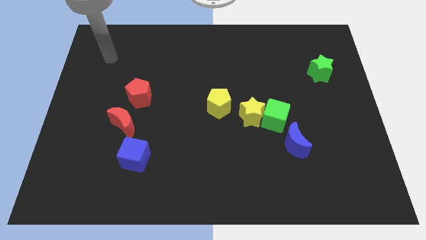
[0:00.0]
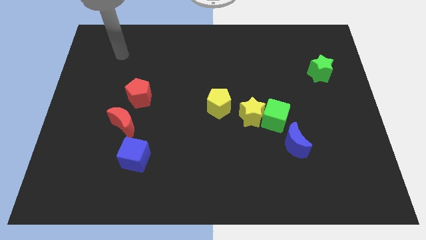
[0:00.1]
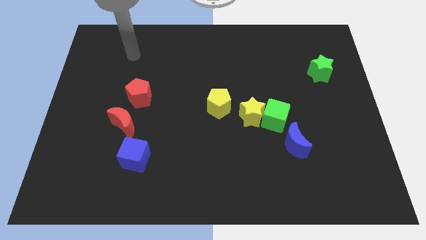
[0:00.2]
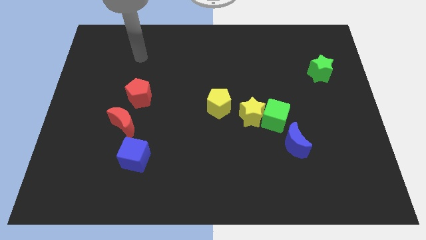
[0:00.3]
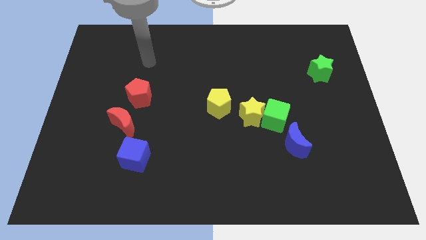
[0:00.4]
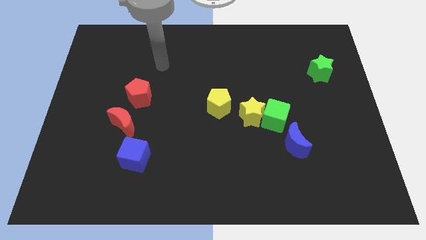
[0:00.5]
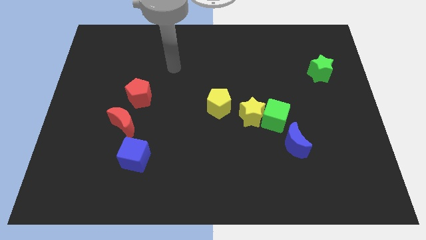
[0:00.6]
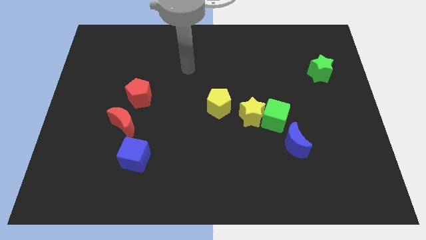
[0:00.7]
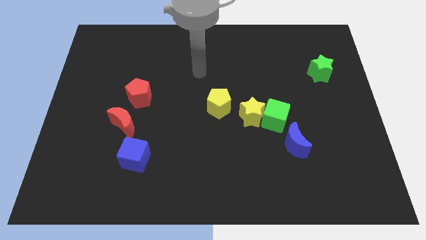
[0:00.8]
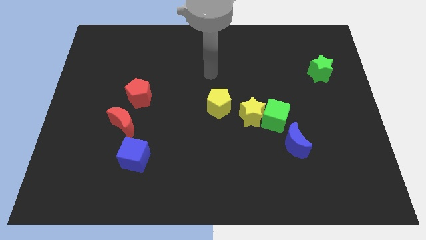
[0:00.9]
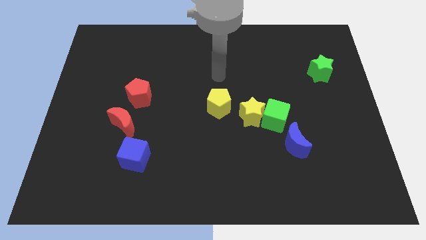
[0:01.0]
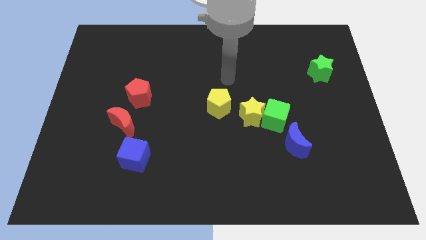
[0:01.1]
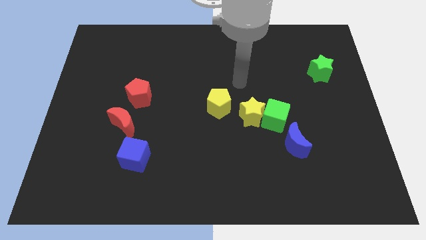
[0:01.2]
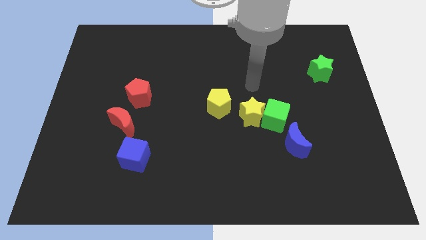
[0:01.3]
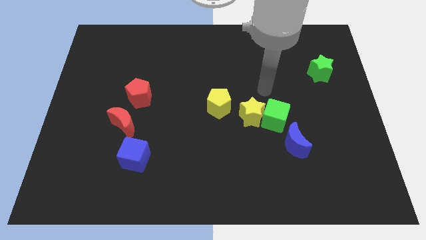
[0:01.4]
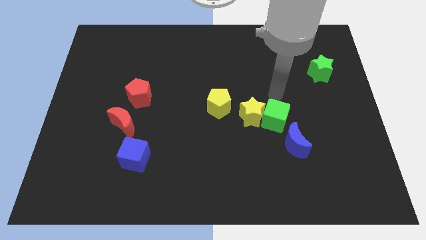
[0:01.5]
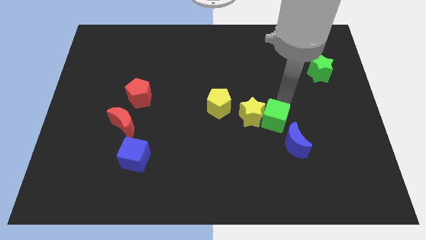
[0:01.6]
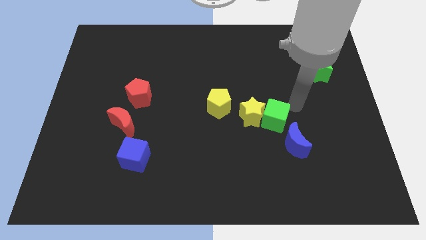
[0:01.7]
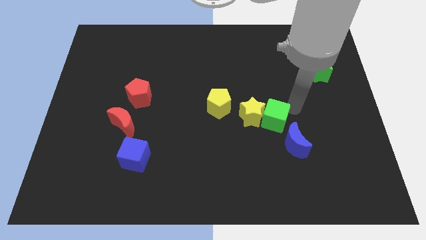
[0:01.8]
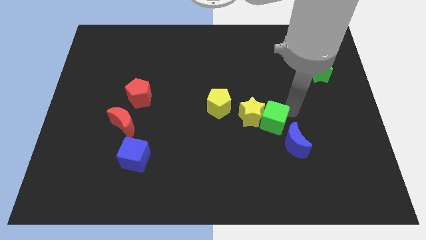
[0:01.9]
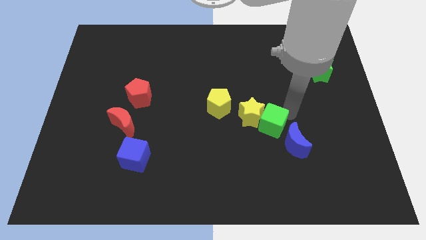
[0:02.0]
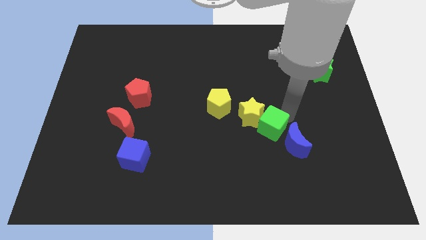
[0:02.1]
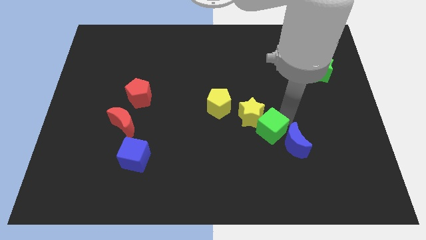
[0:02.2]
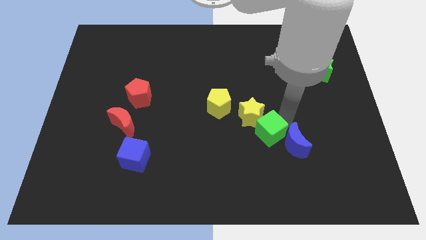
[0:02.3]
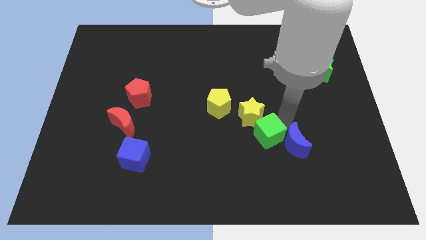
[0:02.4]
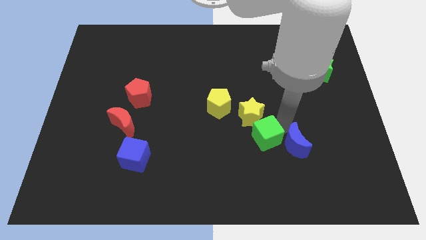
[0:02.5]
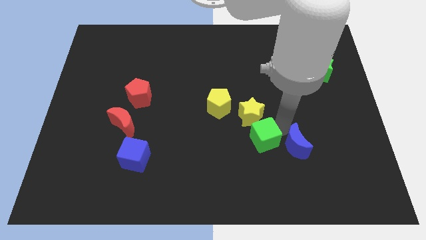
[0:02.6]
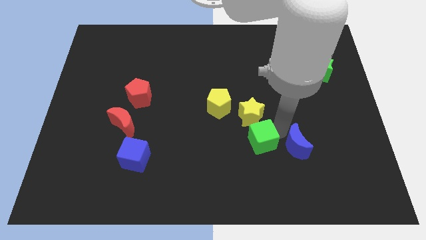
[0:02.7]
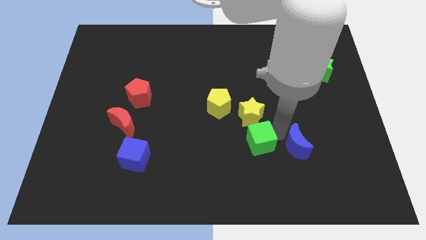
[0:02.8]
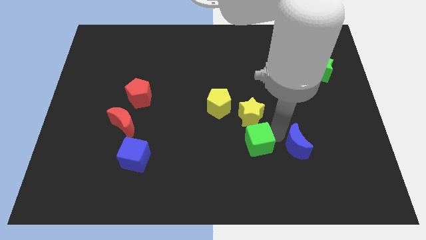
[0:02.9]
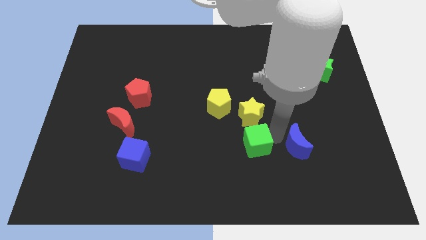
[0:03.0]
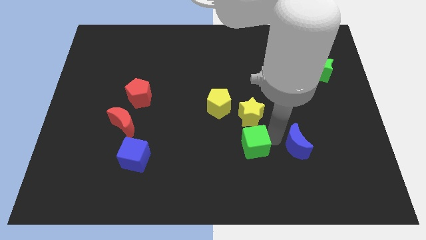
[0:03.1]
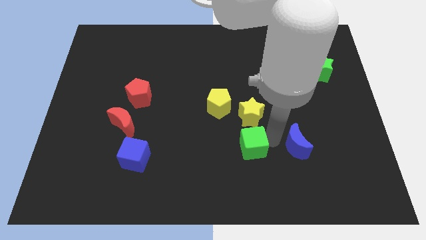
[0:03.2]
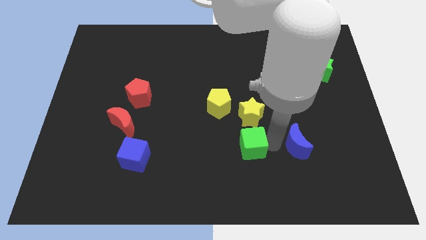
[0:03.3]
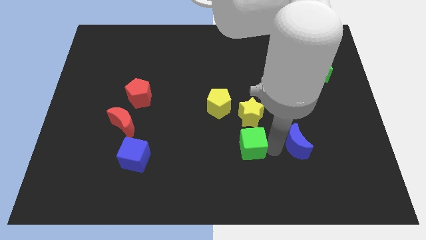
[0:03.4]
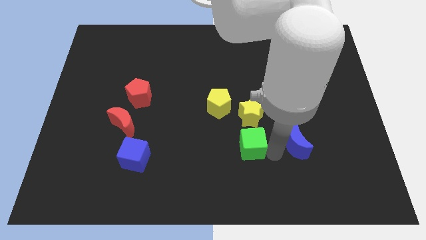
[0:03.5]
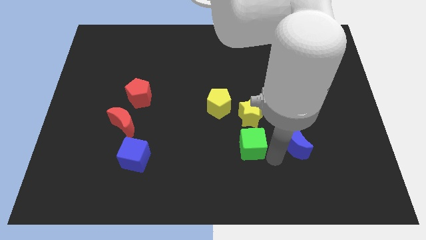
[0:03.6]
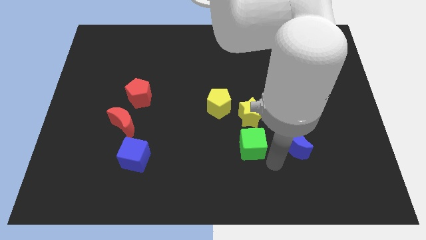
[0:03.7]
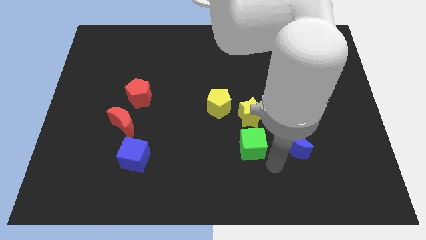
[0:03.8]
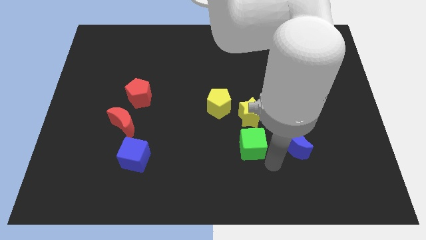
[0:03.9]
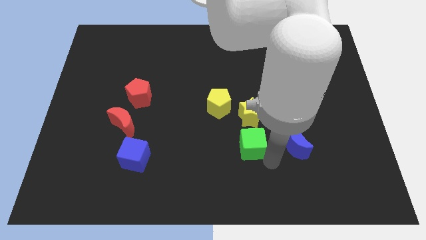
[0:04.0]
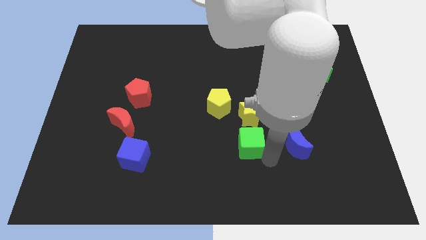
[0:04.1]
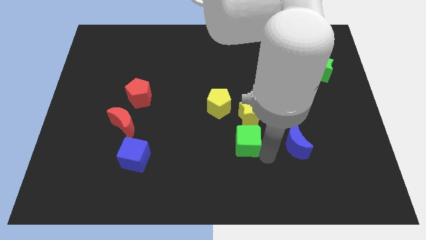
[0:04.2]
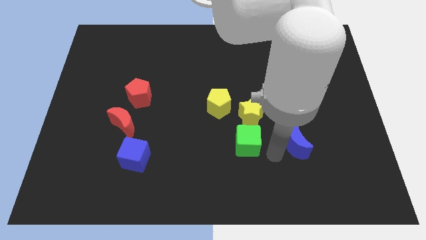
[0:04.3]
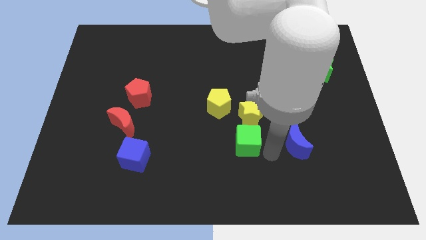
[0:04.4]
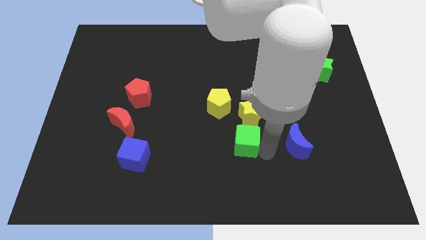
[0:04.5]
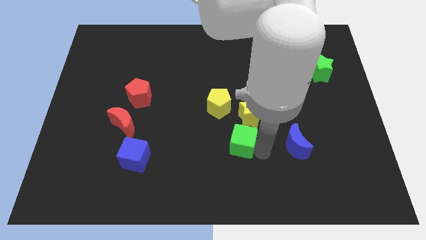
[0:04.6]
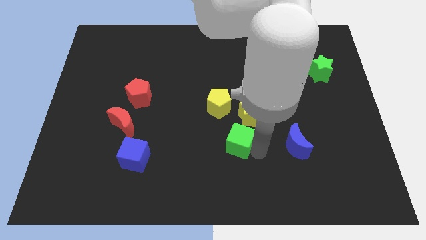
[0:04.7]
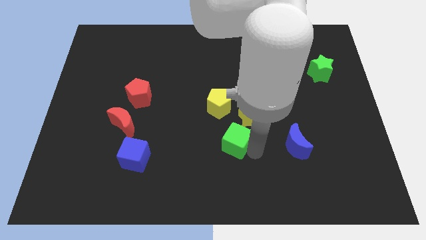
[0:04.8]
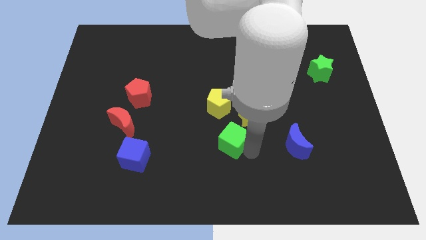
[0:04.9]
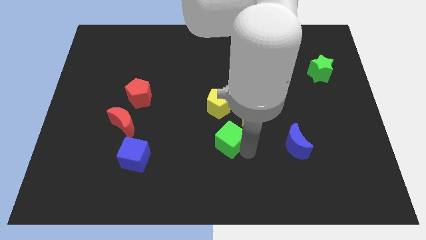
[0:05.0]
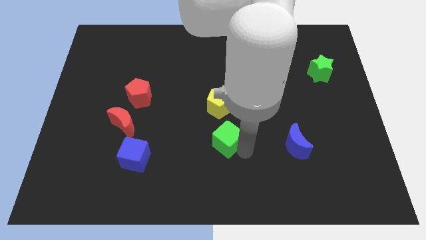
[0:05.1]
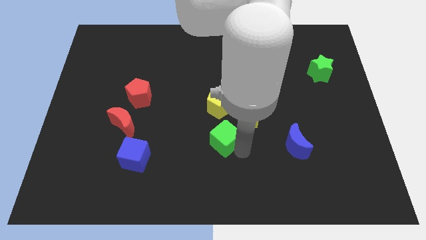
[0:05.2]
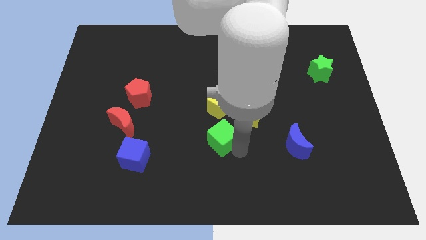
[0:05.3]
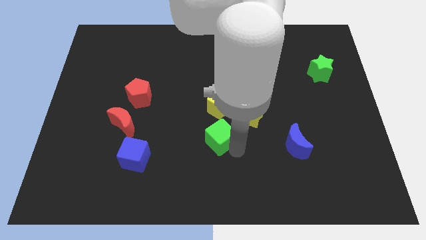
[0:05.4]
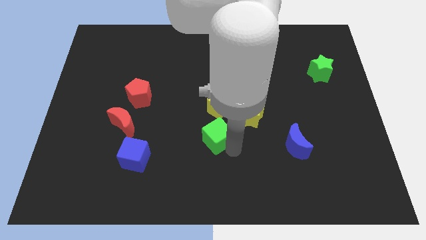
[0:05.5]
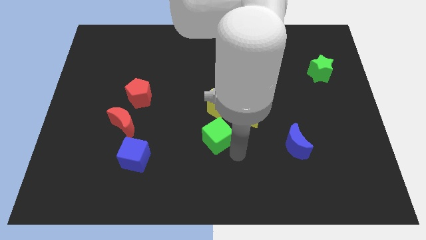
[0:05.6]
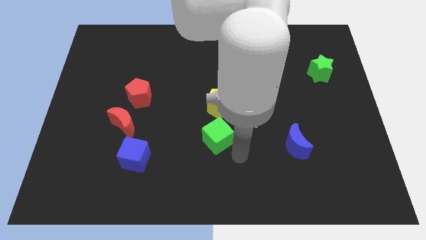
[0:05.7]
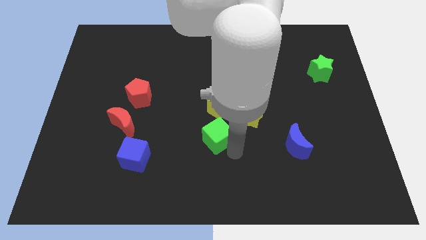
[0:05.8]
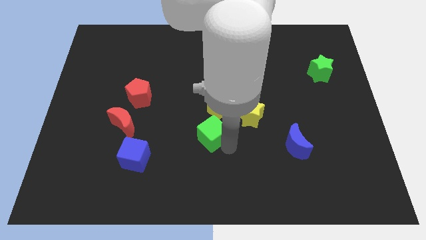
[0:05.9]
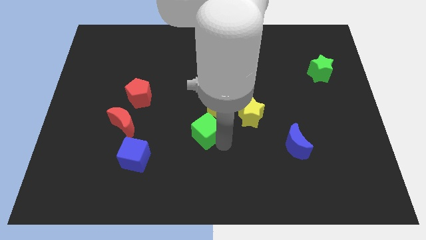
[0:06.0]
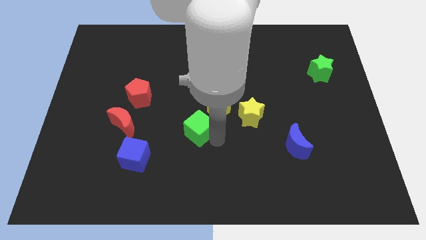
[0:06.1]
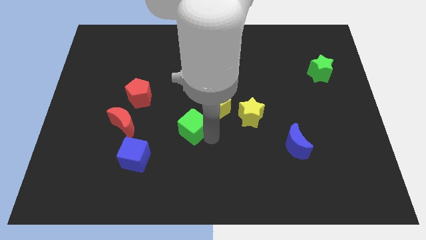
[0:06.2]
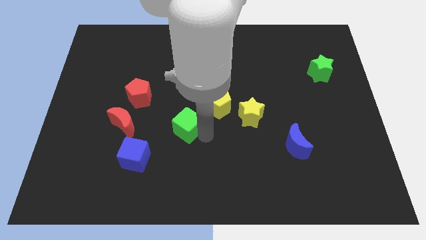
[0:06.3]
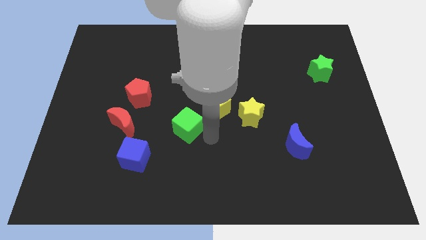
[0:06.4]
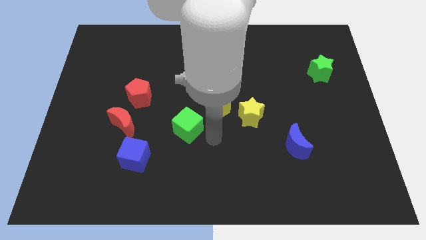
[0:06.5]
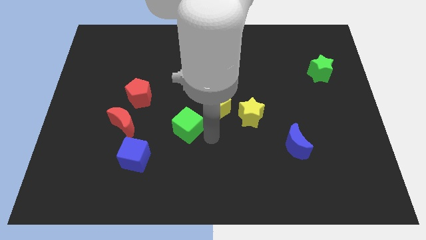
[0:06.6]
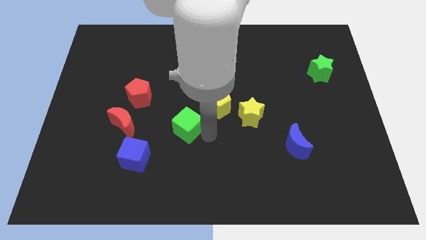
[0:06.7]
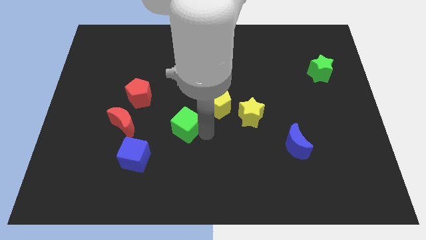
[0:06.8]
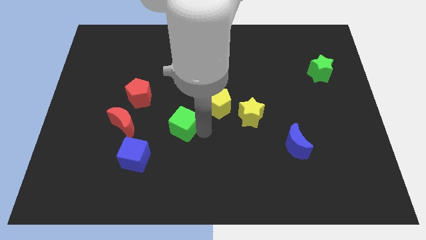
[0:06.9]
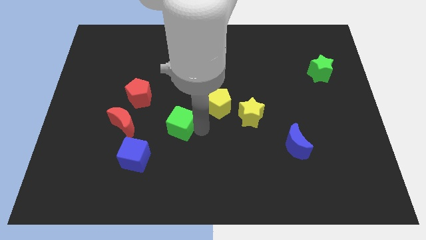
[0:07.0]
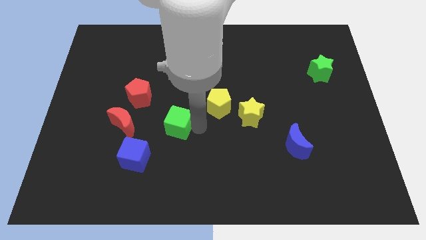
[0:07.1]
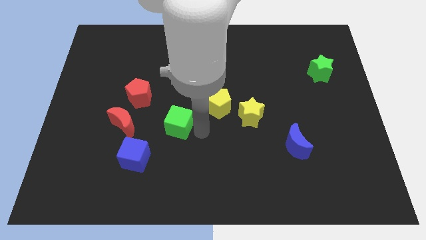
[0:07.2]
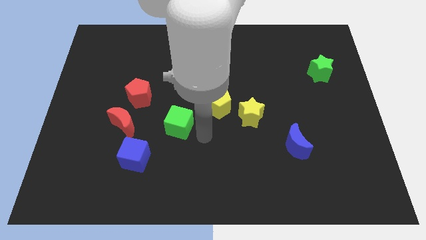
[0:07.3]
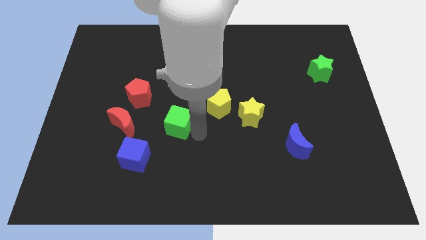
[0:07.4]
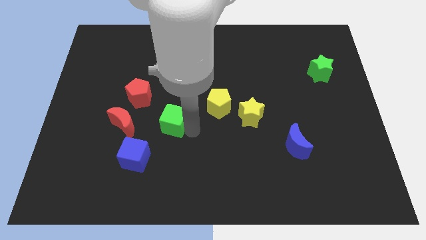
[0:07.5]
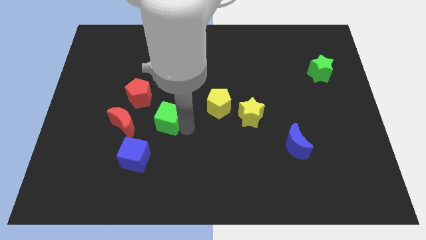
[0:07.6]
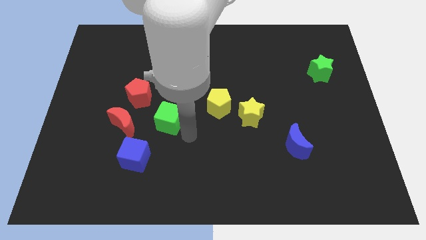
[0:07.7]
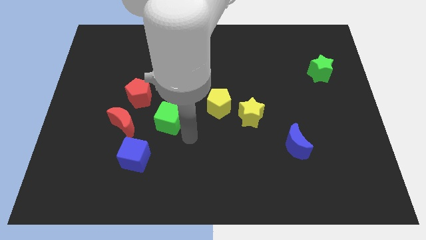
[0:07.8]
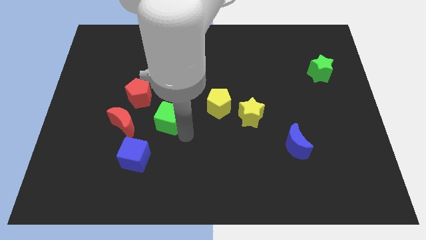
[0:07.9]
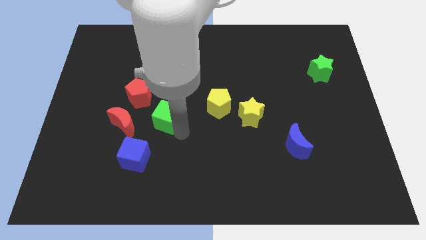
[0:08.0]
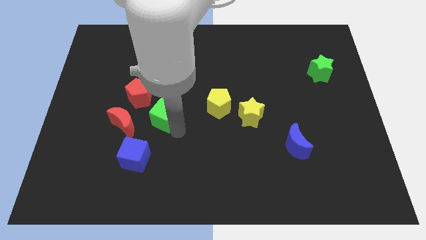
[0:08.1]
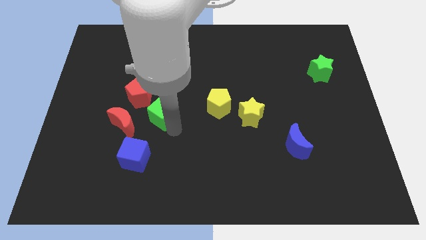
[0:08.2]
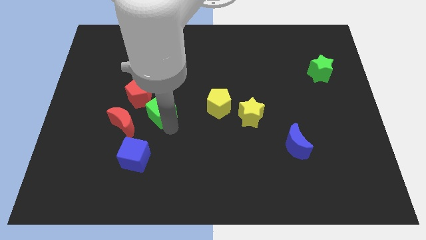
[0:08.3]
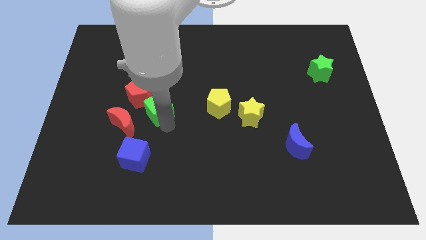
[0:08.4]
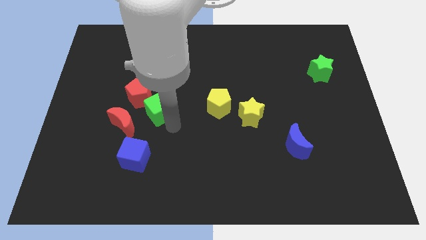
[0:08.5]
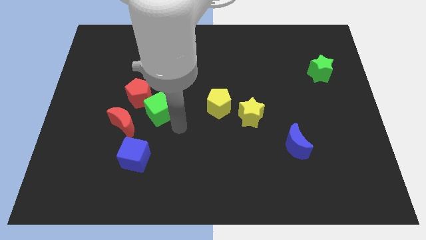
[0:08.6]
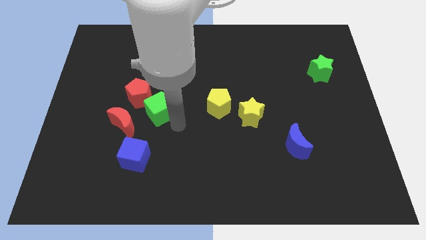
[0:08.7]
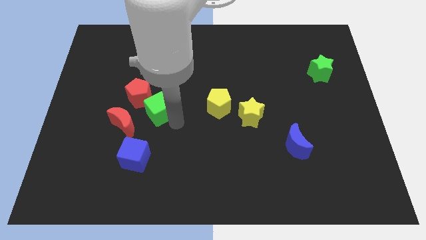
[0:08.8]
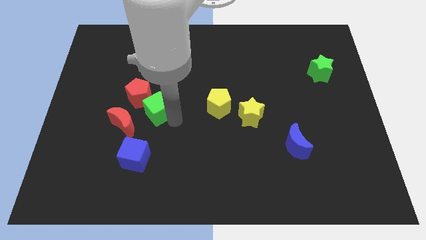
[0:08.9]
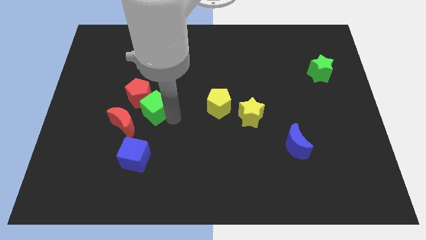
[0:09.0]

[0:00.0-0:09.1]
move the green cube towards the red pentagon
